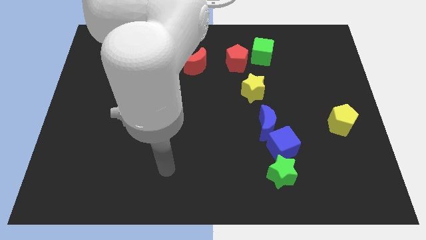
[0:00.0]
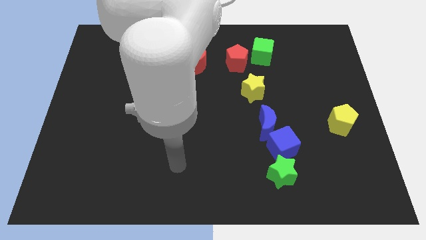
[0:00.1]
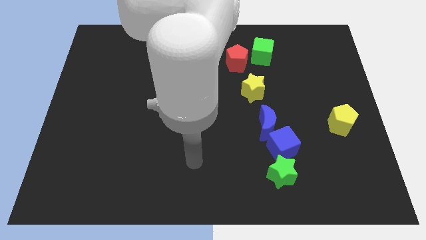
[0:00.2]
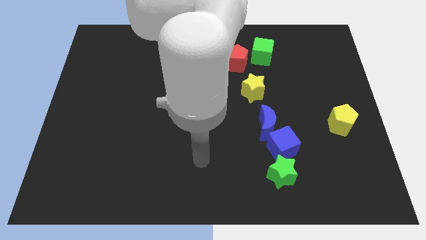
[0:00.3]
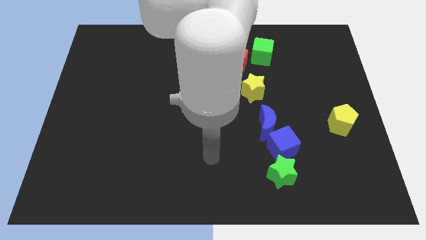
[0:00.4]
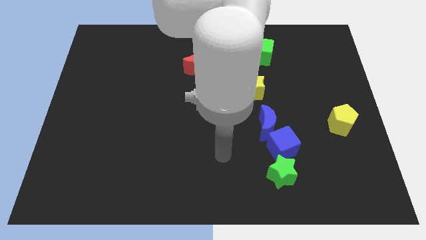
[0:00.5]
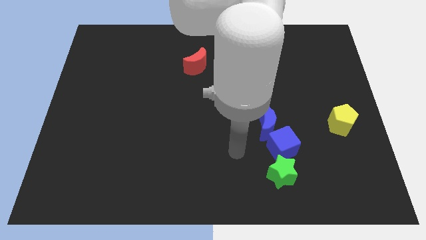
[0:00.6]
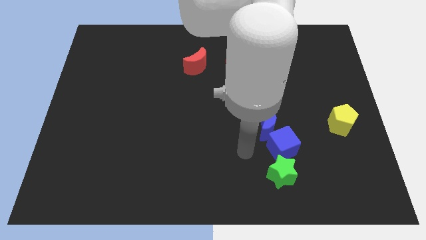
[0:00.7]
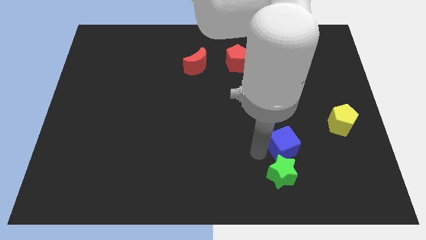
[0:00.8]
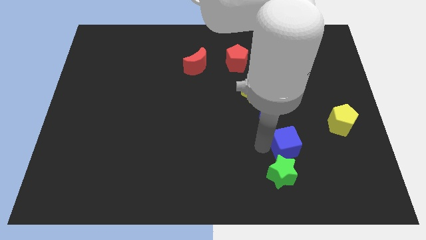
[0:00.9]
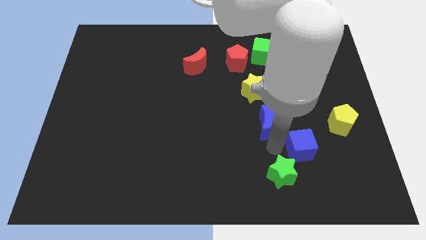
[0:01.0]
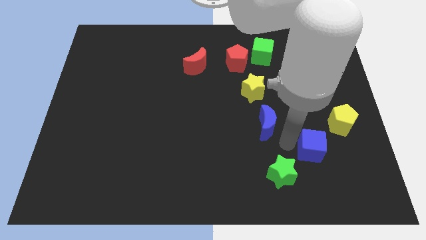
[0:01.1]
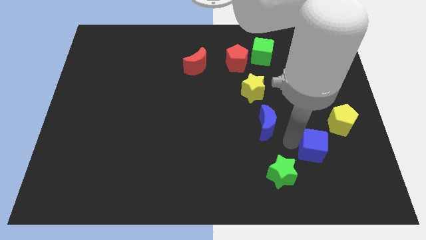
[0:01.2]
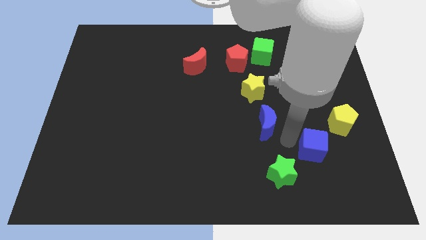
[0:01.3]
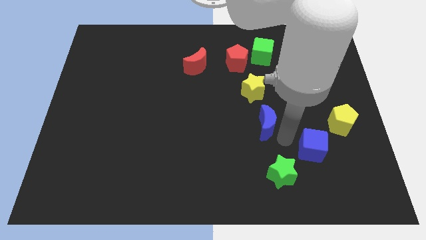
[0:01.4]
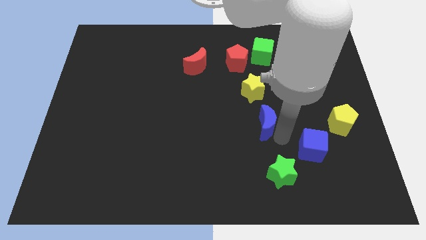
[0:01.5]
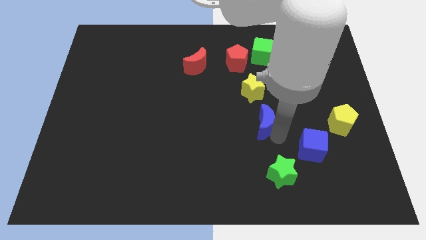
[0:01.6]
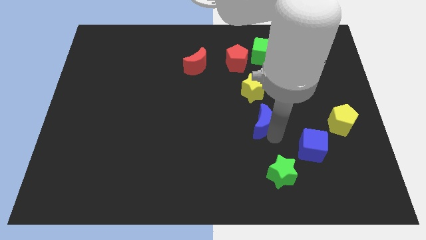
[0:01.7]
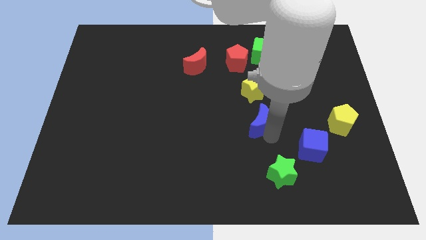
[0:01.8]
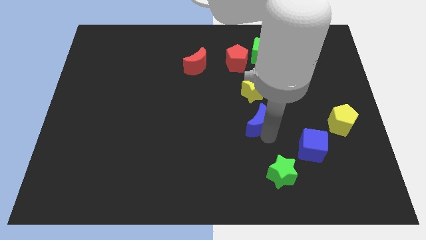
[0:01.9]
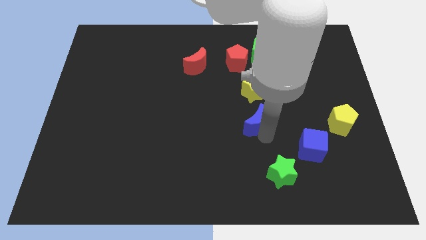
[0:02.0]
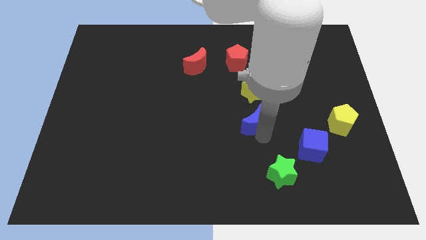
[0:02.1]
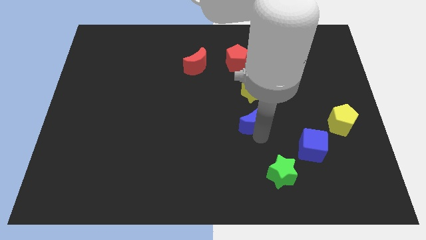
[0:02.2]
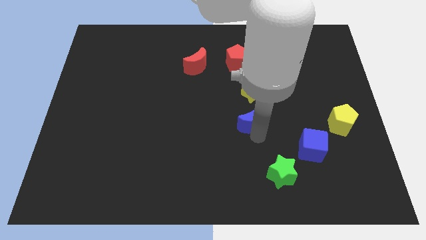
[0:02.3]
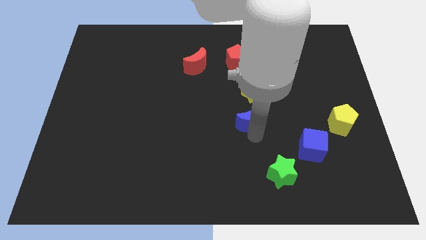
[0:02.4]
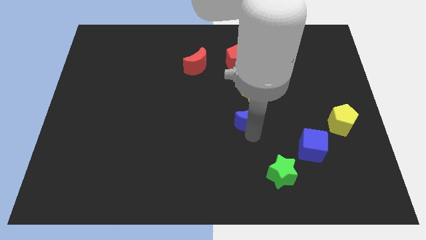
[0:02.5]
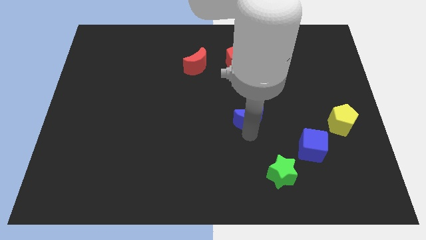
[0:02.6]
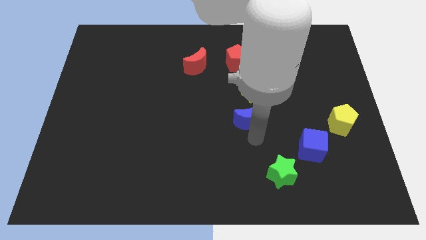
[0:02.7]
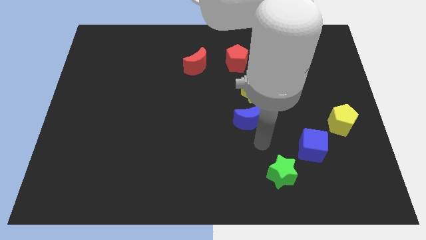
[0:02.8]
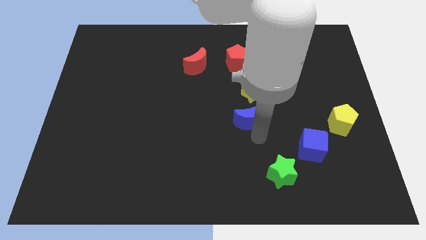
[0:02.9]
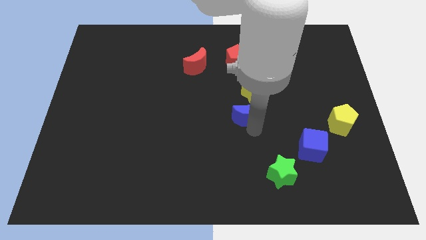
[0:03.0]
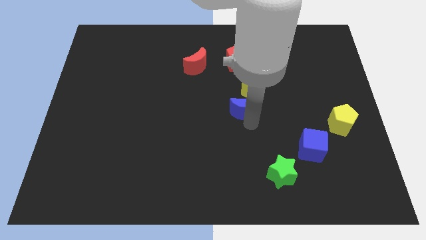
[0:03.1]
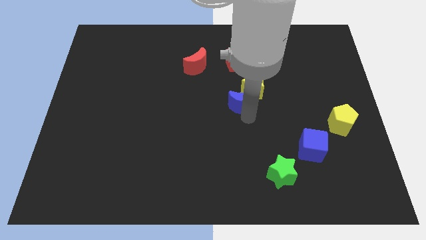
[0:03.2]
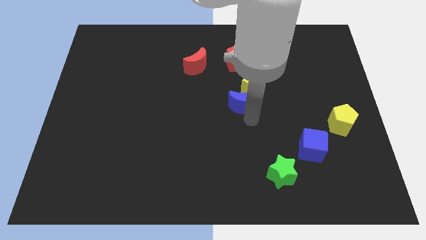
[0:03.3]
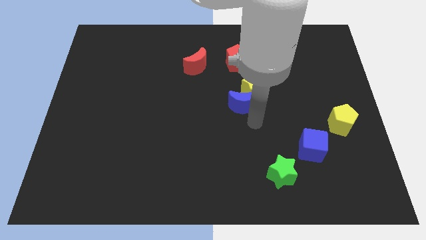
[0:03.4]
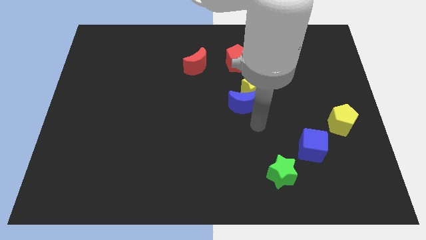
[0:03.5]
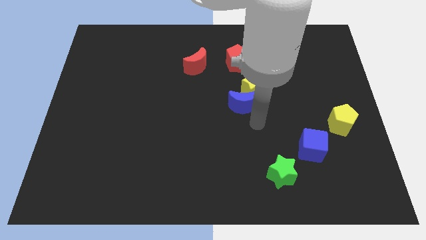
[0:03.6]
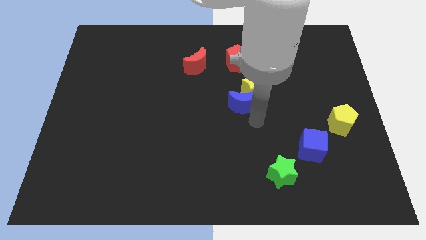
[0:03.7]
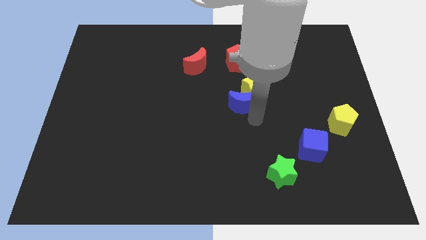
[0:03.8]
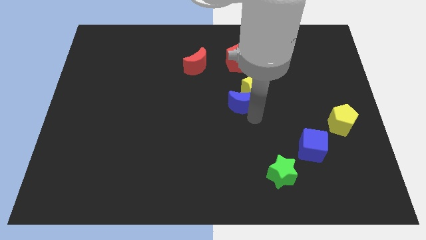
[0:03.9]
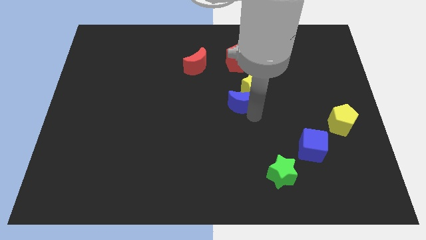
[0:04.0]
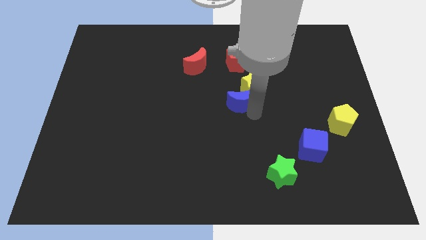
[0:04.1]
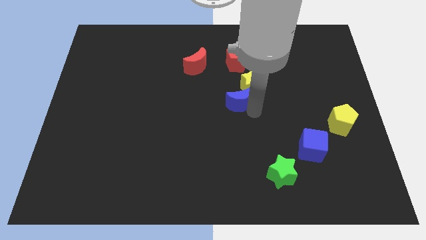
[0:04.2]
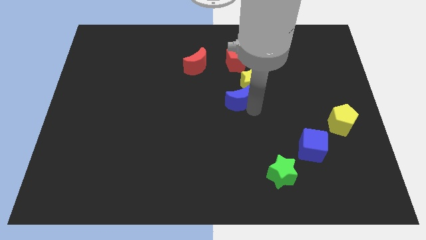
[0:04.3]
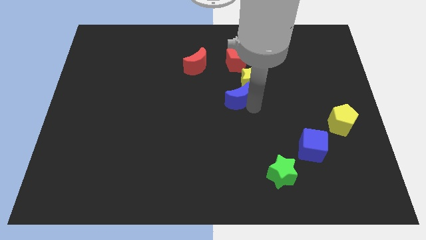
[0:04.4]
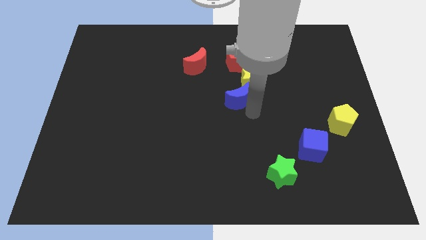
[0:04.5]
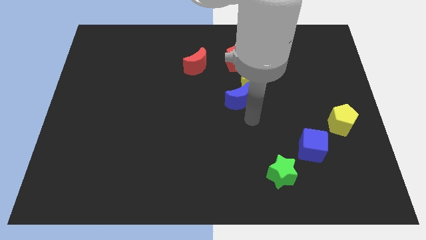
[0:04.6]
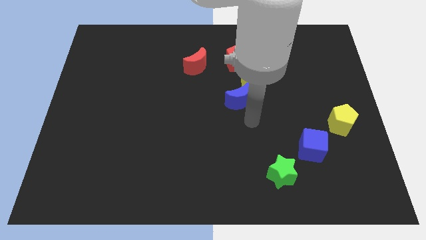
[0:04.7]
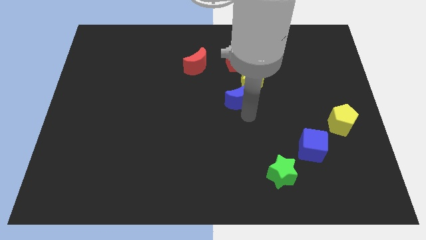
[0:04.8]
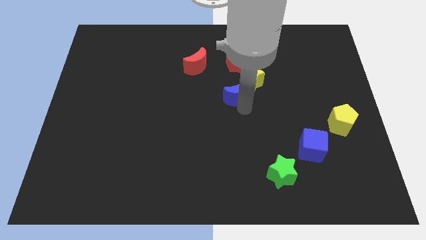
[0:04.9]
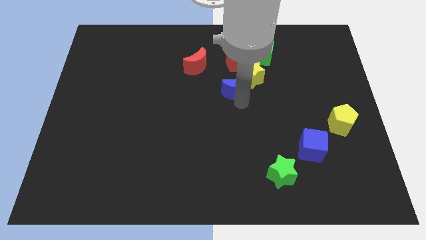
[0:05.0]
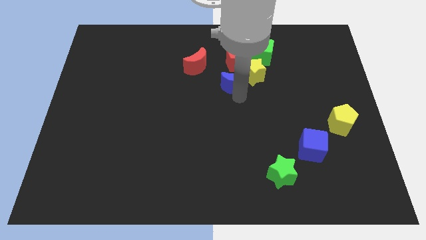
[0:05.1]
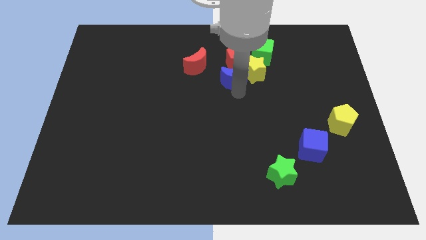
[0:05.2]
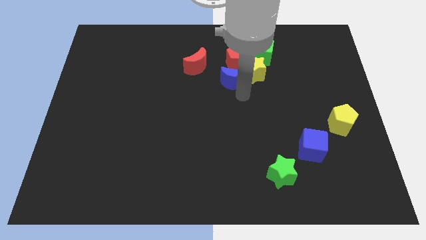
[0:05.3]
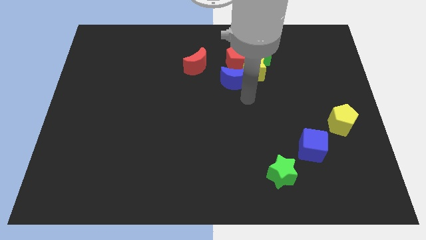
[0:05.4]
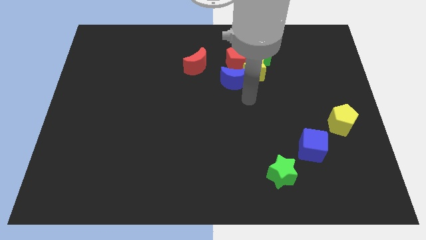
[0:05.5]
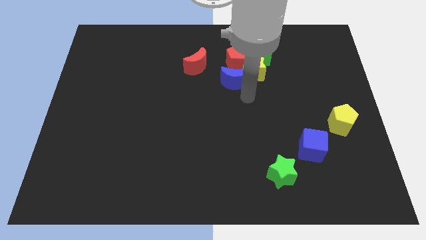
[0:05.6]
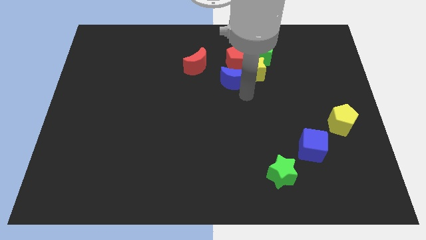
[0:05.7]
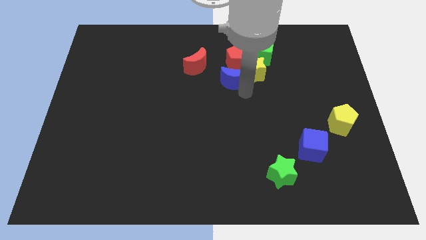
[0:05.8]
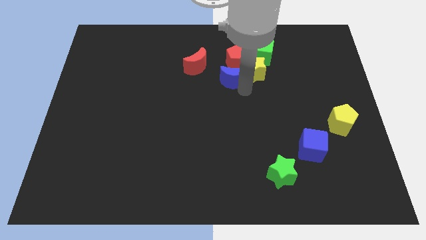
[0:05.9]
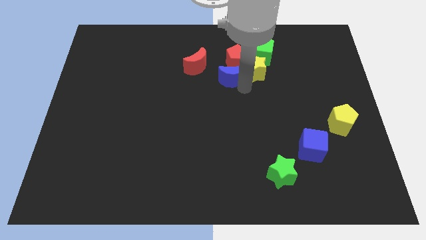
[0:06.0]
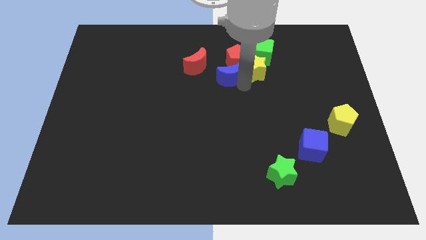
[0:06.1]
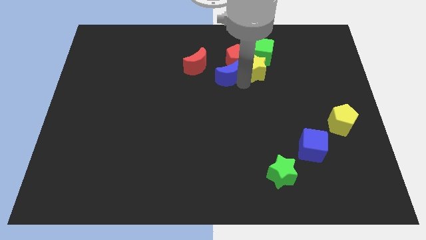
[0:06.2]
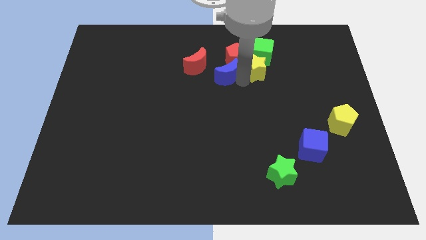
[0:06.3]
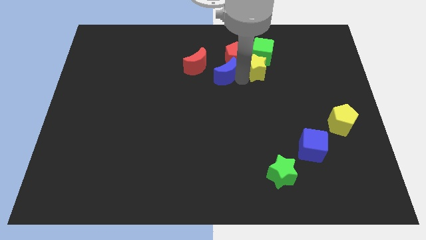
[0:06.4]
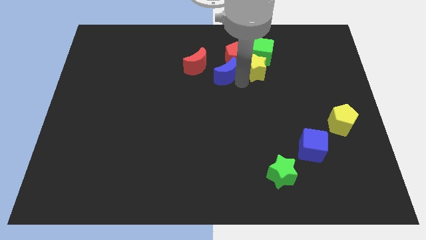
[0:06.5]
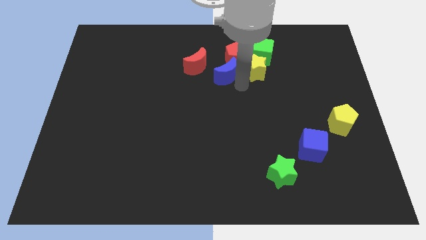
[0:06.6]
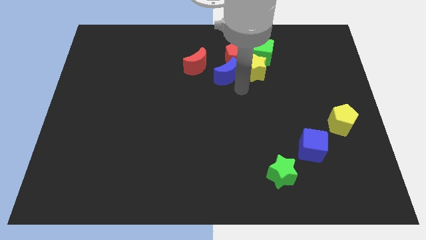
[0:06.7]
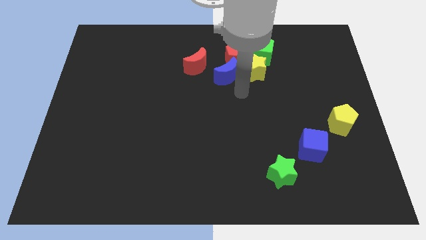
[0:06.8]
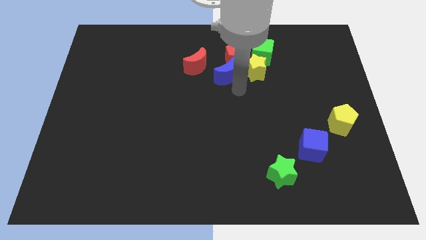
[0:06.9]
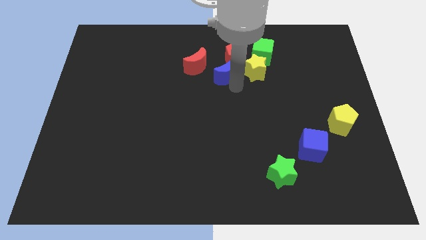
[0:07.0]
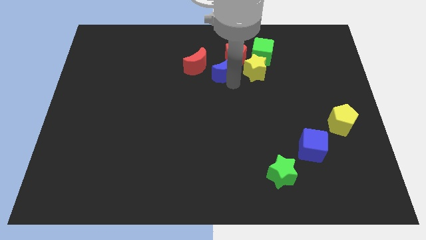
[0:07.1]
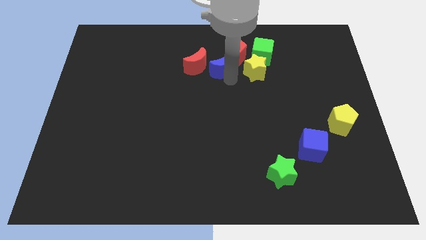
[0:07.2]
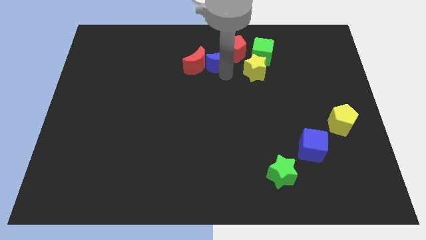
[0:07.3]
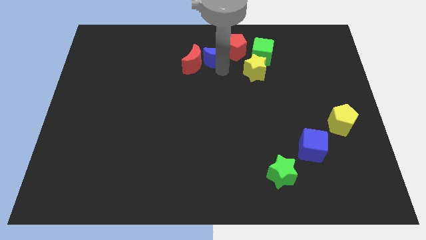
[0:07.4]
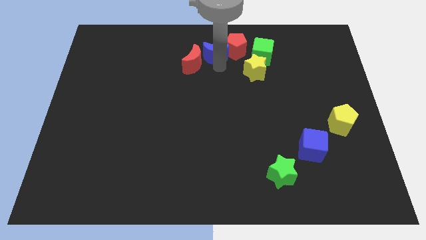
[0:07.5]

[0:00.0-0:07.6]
slide the blue moon to the towards your base
